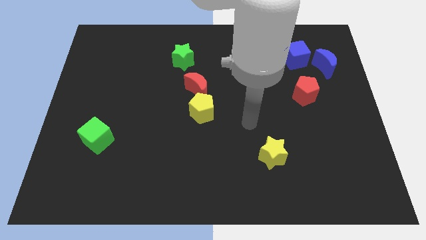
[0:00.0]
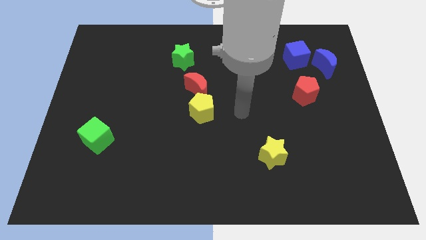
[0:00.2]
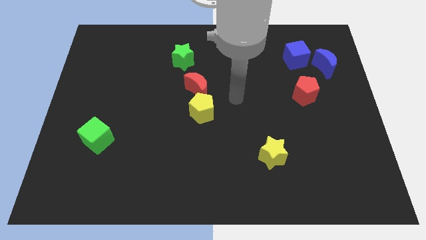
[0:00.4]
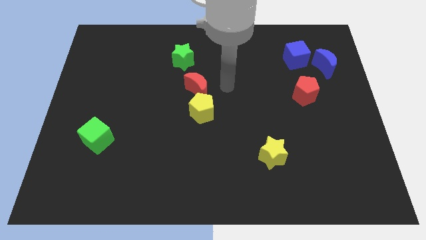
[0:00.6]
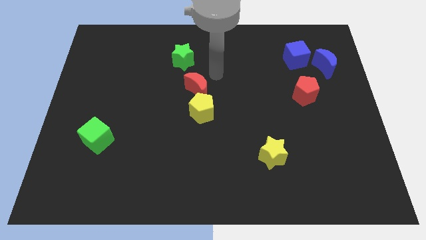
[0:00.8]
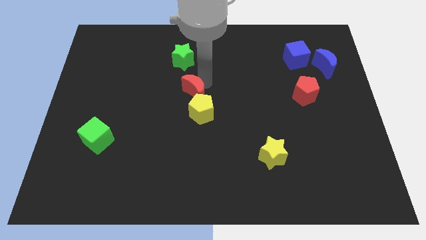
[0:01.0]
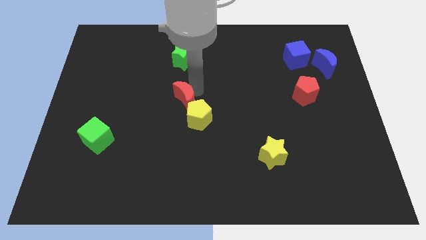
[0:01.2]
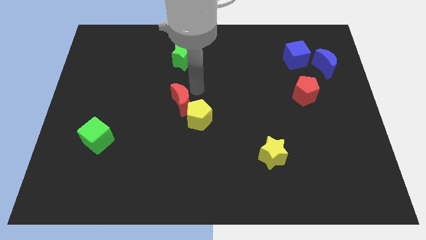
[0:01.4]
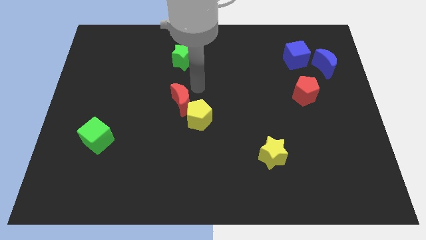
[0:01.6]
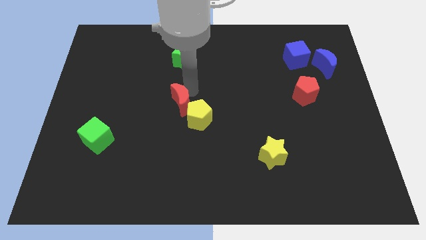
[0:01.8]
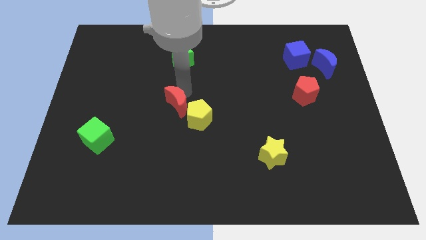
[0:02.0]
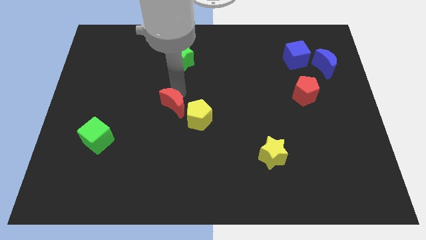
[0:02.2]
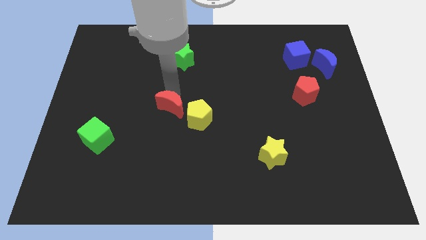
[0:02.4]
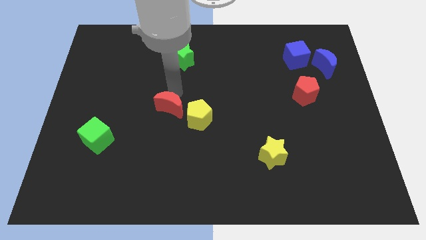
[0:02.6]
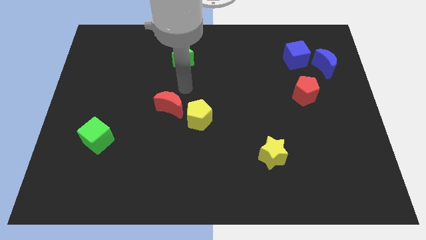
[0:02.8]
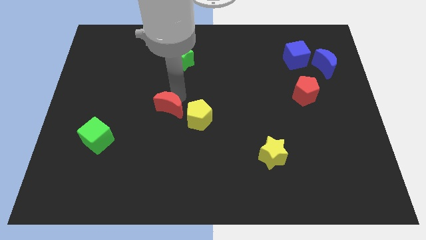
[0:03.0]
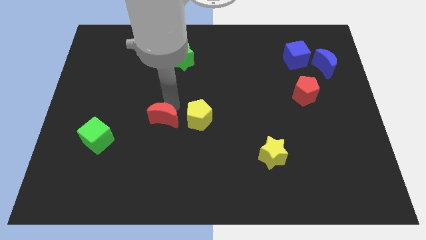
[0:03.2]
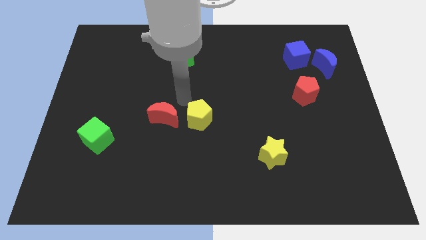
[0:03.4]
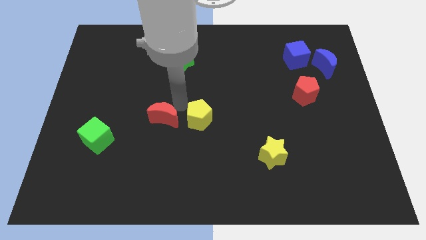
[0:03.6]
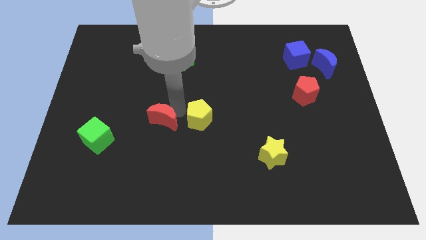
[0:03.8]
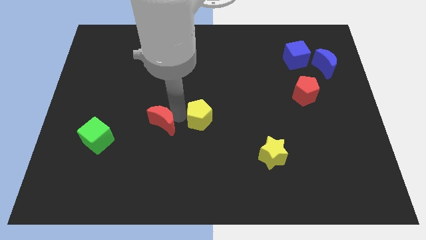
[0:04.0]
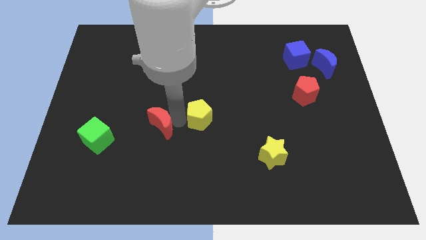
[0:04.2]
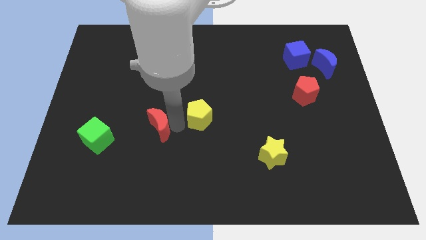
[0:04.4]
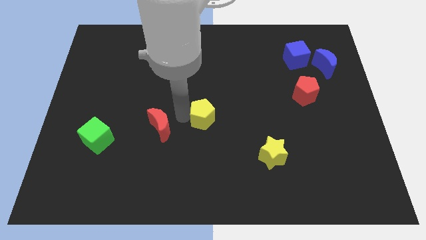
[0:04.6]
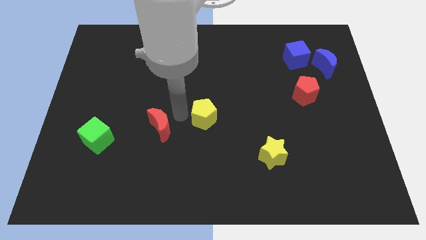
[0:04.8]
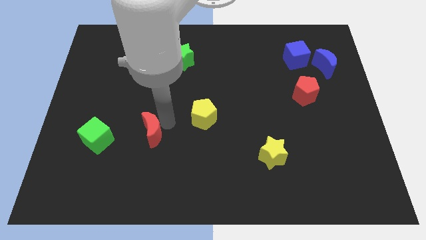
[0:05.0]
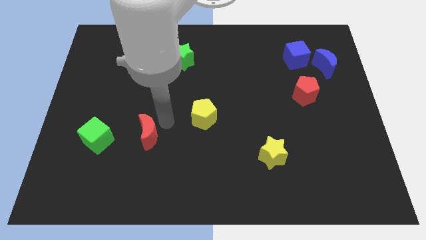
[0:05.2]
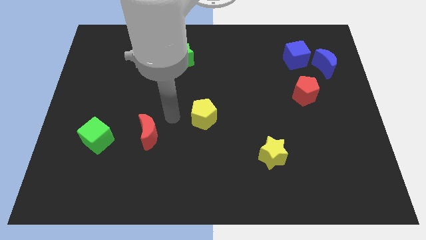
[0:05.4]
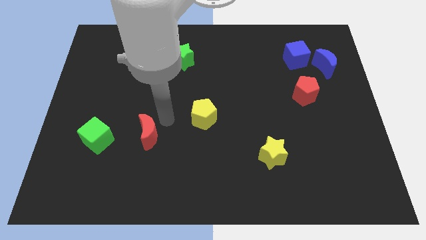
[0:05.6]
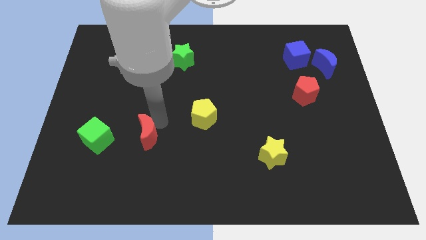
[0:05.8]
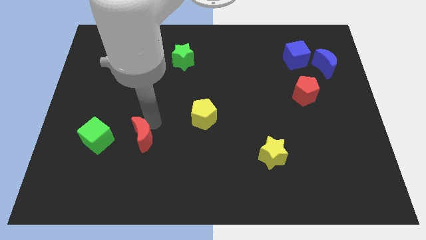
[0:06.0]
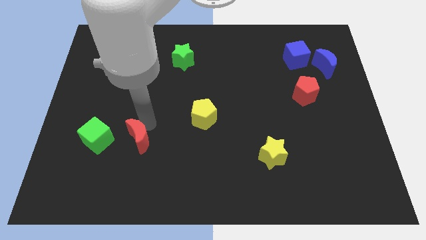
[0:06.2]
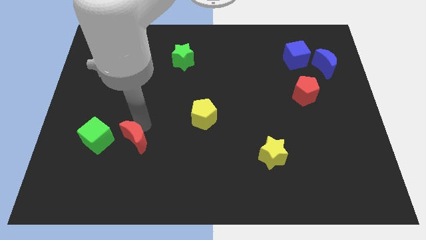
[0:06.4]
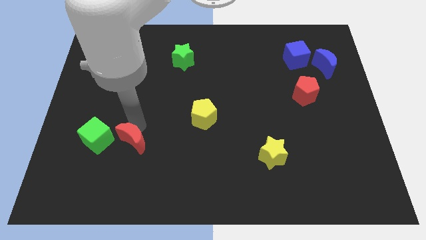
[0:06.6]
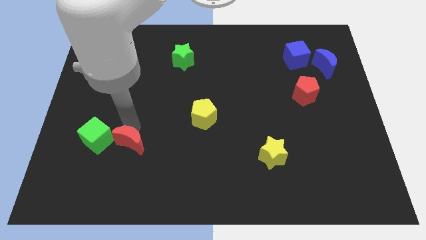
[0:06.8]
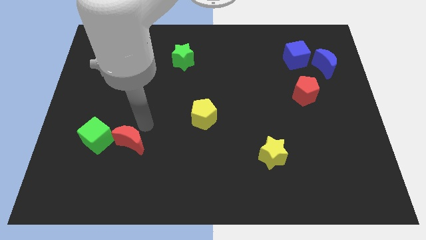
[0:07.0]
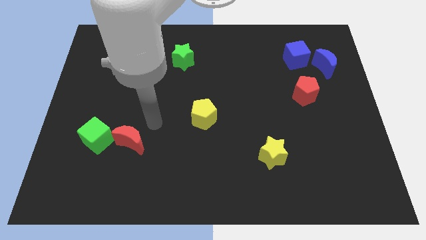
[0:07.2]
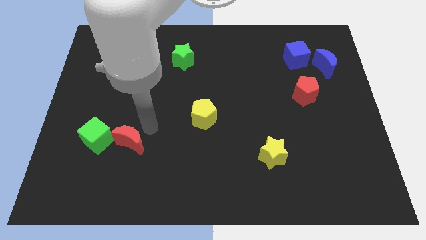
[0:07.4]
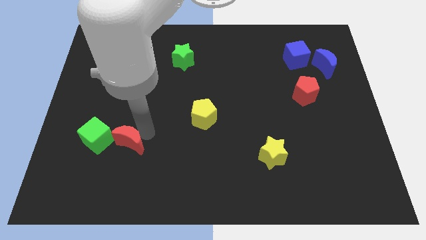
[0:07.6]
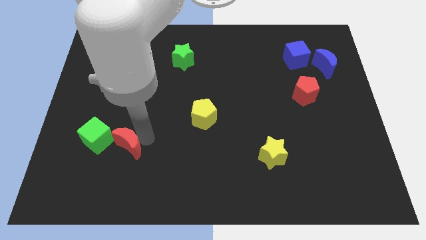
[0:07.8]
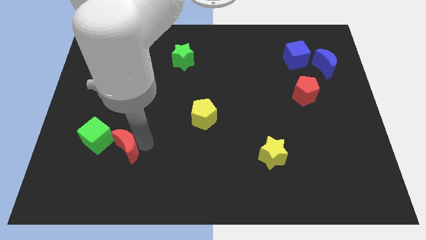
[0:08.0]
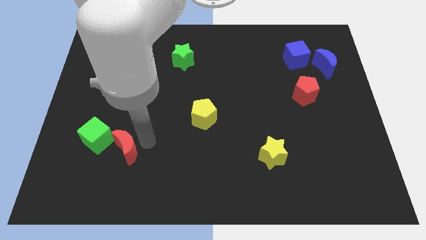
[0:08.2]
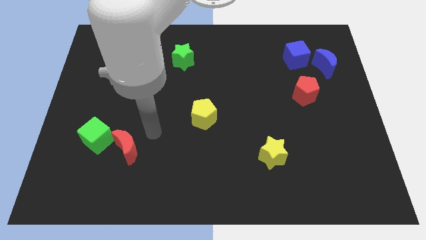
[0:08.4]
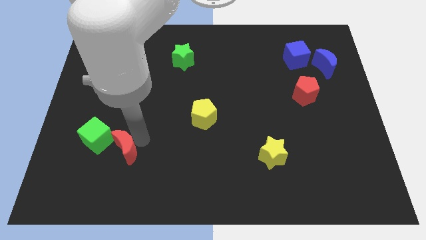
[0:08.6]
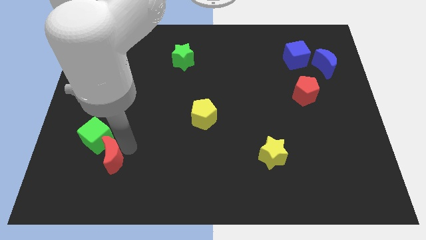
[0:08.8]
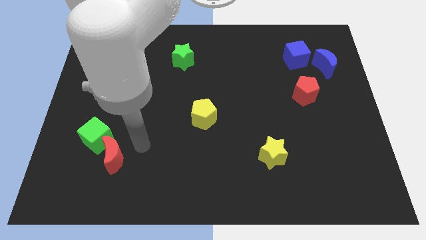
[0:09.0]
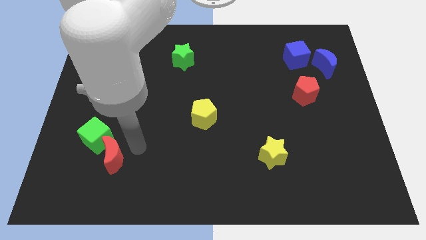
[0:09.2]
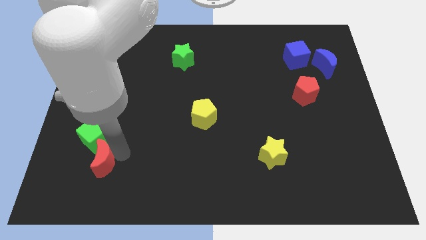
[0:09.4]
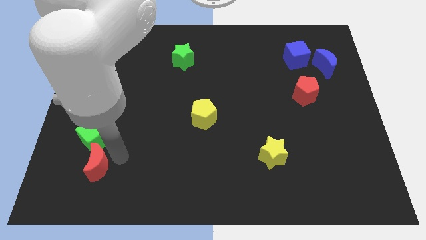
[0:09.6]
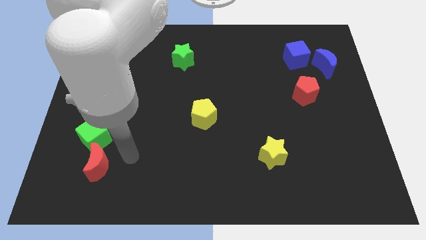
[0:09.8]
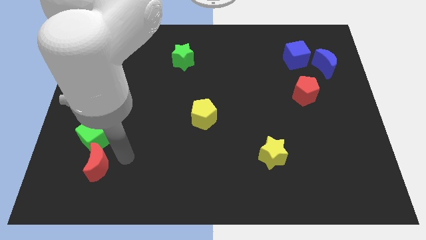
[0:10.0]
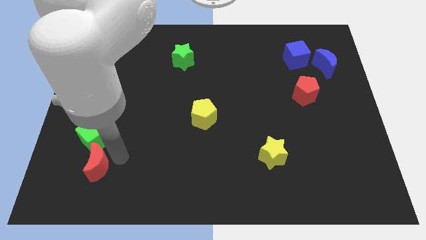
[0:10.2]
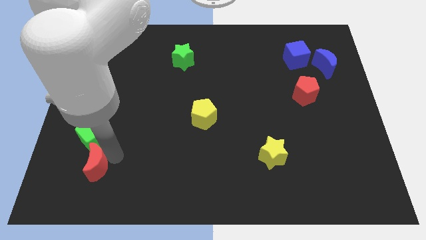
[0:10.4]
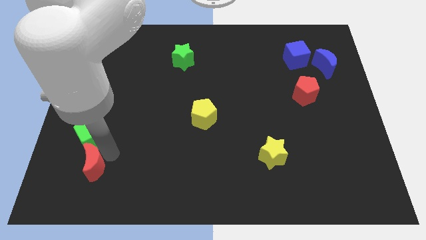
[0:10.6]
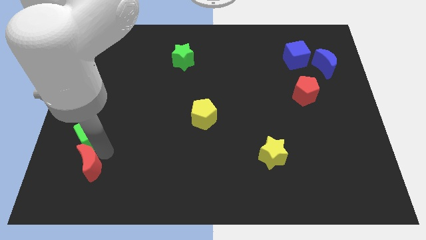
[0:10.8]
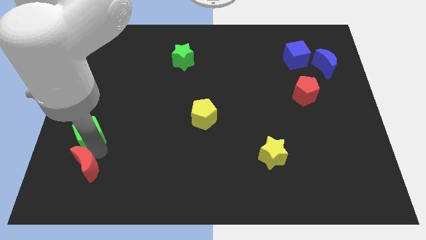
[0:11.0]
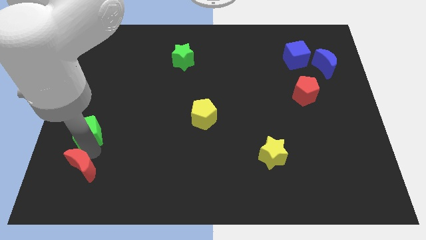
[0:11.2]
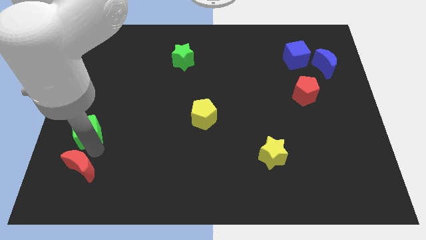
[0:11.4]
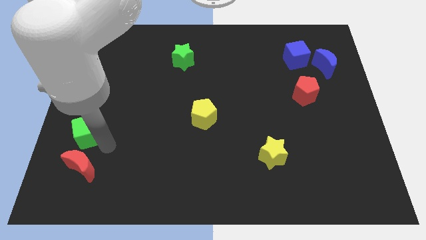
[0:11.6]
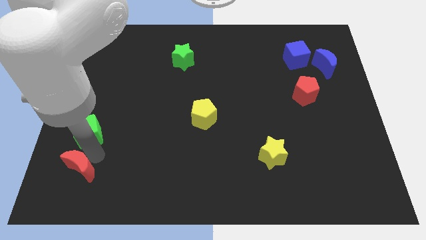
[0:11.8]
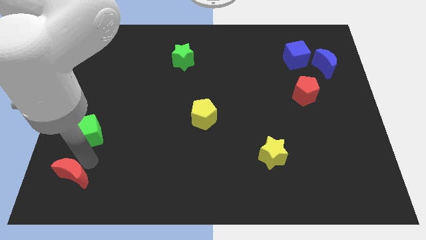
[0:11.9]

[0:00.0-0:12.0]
move the red moon to the lower left corner
